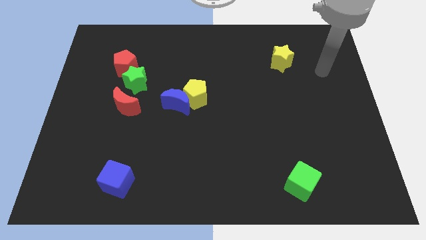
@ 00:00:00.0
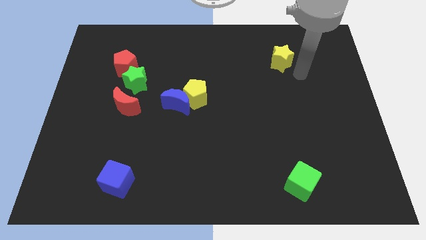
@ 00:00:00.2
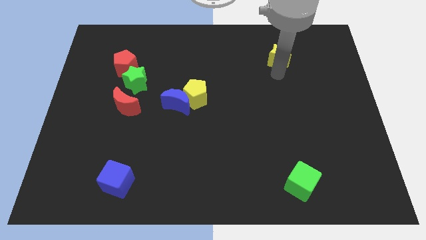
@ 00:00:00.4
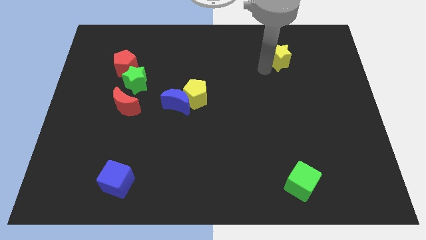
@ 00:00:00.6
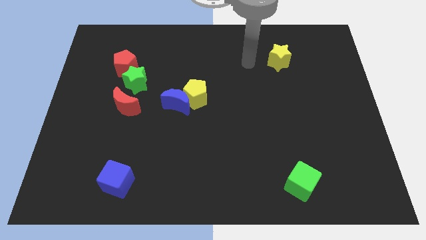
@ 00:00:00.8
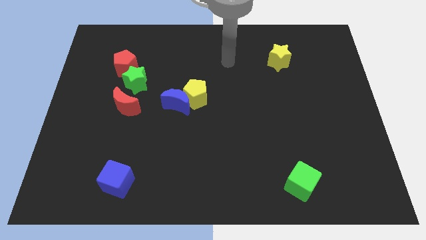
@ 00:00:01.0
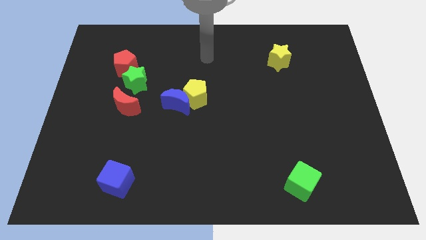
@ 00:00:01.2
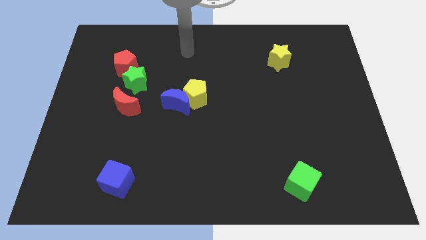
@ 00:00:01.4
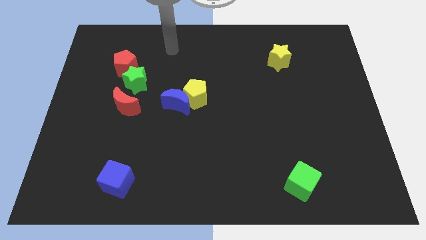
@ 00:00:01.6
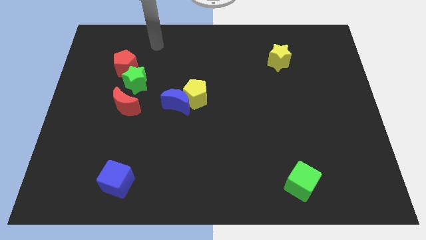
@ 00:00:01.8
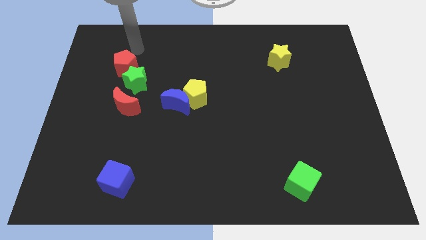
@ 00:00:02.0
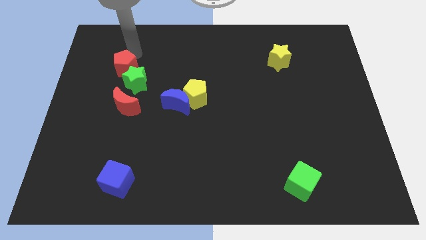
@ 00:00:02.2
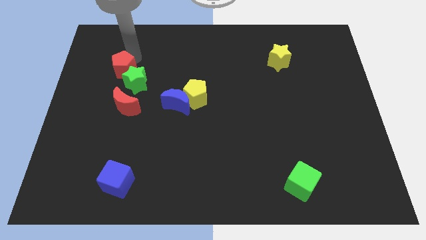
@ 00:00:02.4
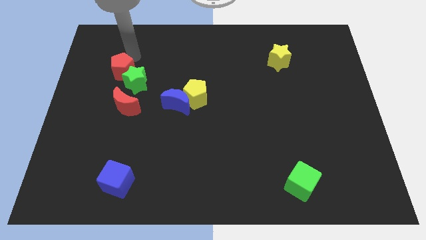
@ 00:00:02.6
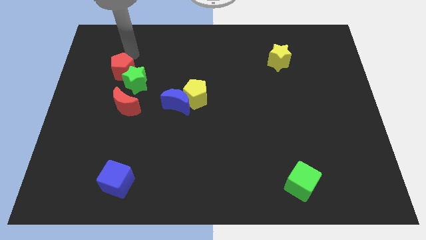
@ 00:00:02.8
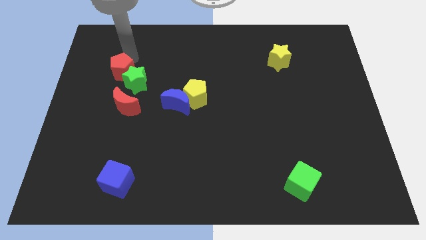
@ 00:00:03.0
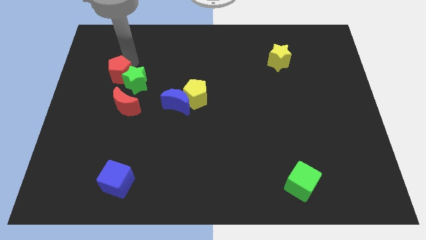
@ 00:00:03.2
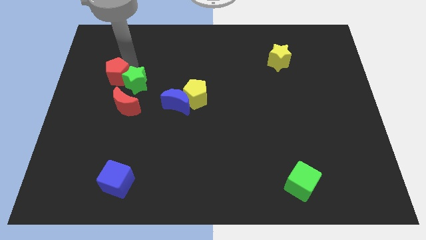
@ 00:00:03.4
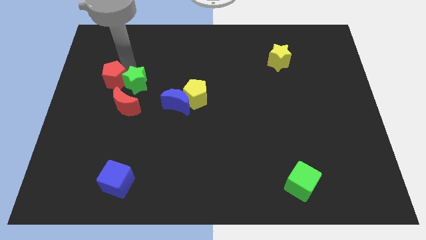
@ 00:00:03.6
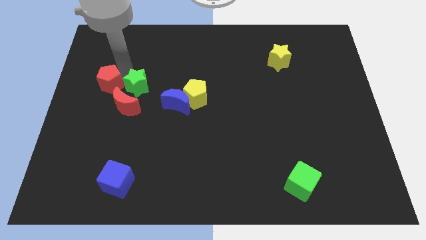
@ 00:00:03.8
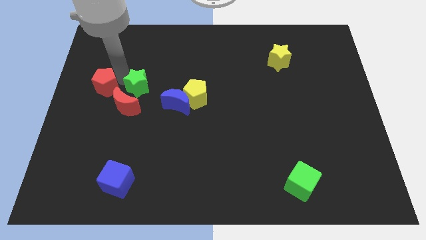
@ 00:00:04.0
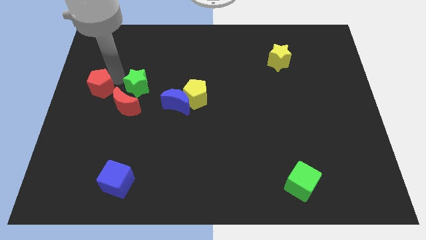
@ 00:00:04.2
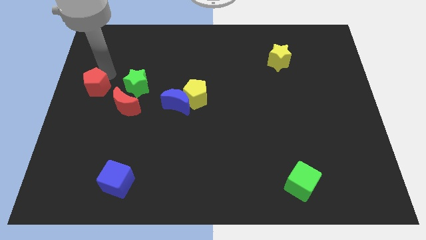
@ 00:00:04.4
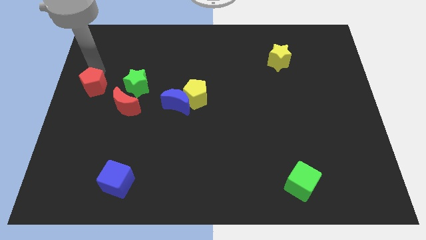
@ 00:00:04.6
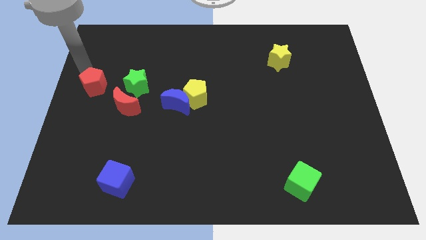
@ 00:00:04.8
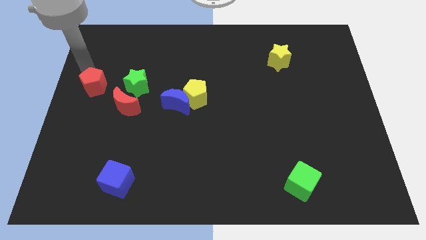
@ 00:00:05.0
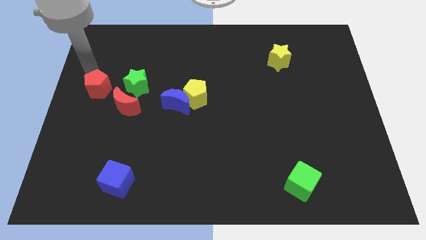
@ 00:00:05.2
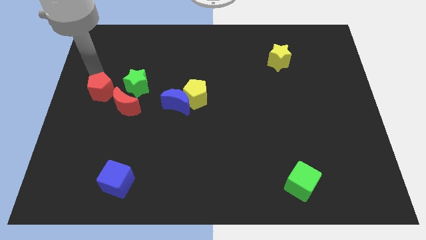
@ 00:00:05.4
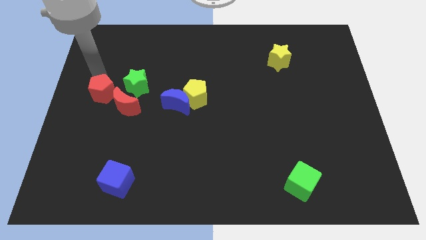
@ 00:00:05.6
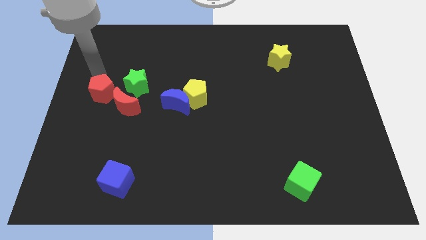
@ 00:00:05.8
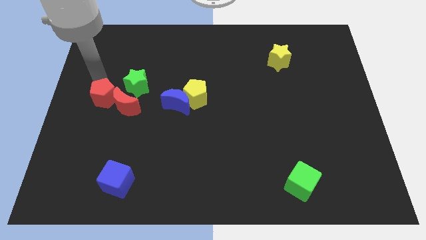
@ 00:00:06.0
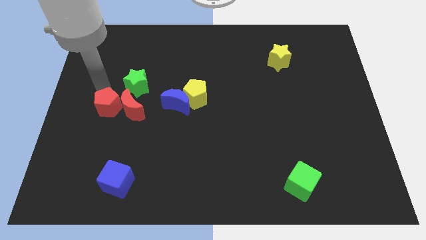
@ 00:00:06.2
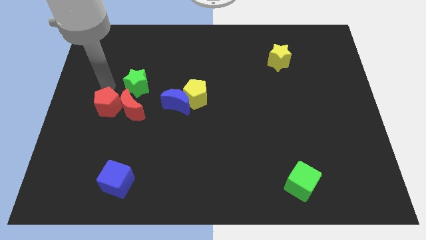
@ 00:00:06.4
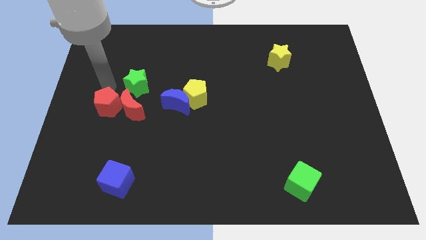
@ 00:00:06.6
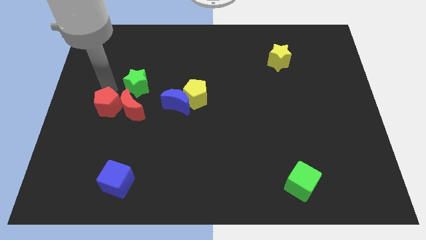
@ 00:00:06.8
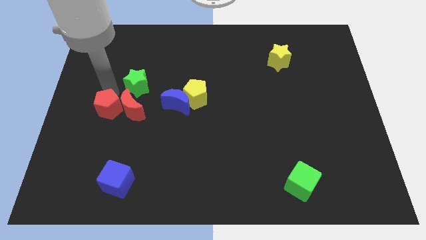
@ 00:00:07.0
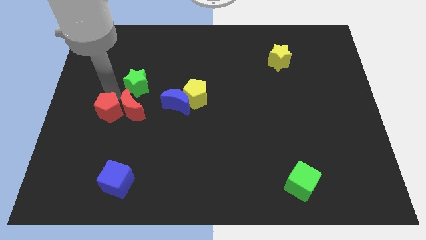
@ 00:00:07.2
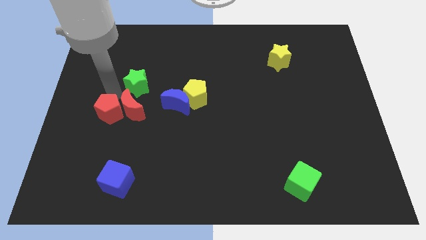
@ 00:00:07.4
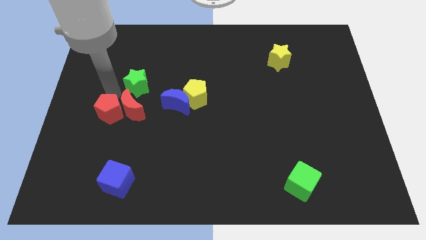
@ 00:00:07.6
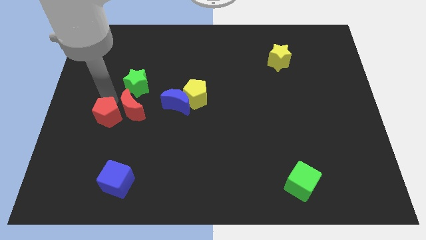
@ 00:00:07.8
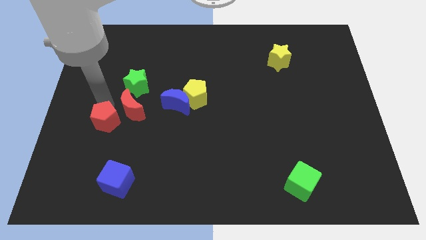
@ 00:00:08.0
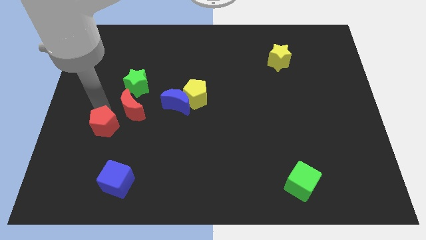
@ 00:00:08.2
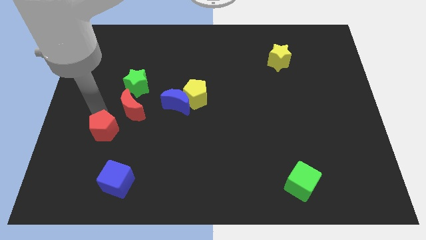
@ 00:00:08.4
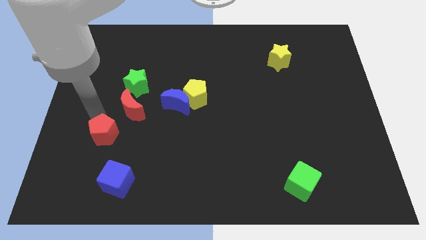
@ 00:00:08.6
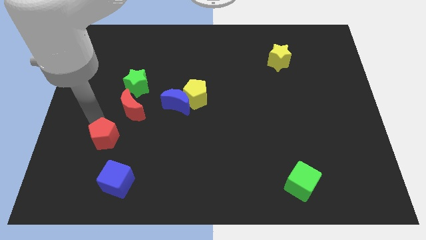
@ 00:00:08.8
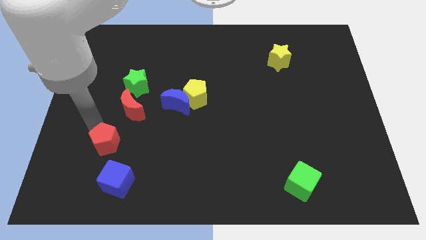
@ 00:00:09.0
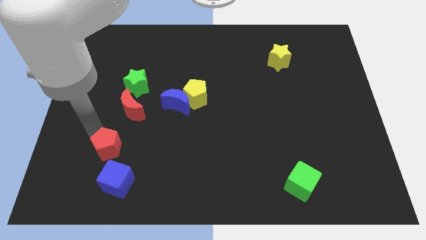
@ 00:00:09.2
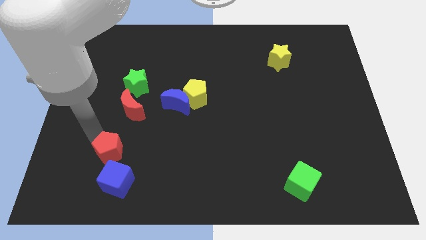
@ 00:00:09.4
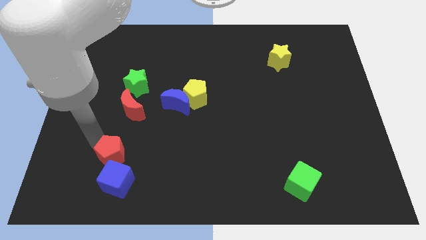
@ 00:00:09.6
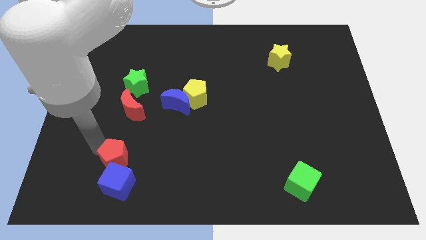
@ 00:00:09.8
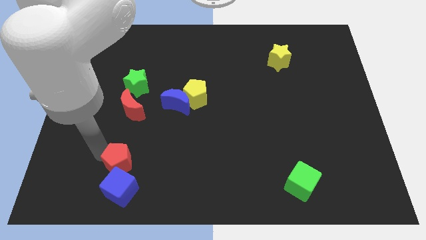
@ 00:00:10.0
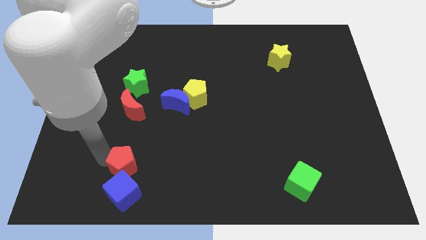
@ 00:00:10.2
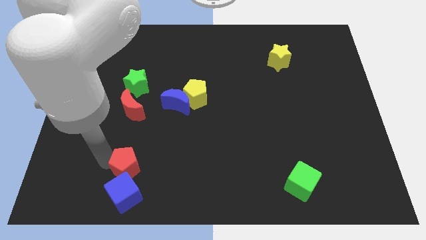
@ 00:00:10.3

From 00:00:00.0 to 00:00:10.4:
put the red pentagon to the top right side of the blue cube

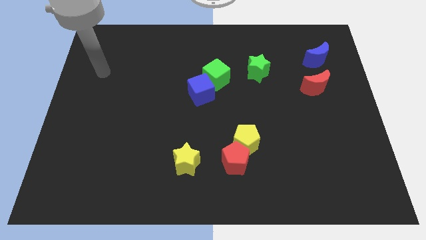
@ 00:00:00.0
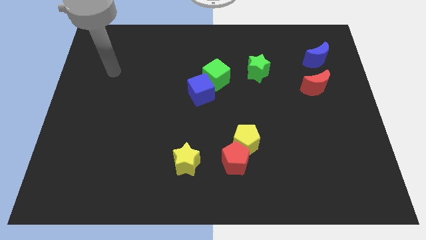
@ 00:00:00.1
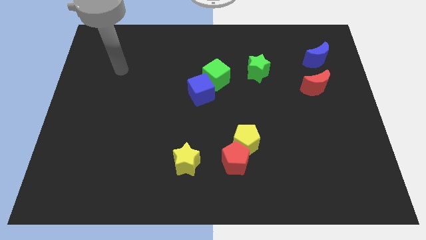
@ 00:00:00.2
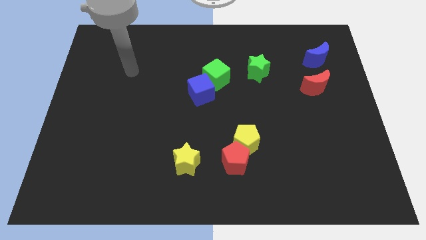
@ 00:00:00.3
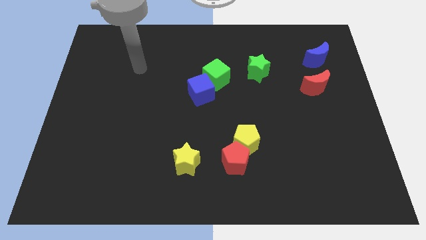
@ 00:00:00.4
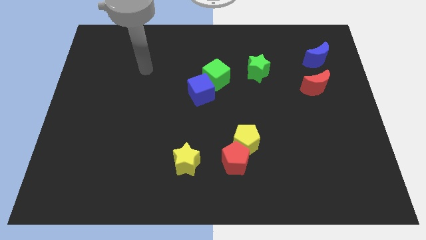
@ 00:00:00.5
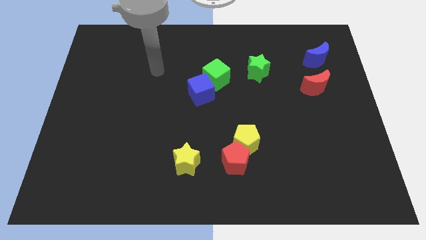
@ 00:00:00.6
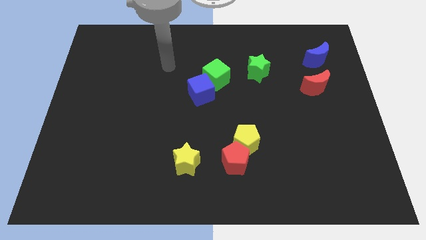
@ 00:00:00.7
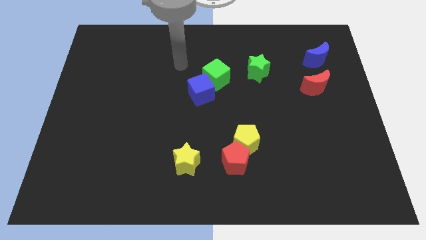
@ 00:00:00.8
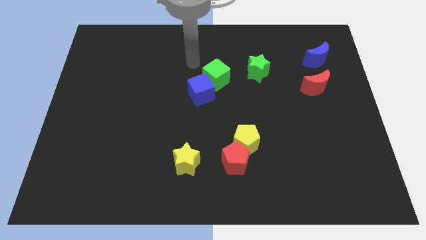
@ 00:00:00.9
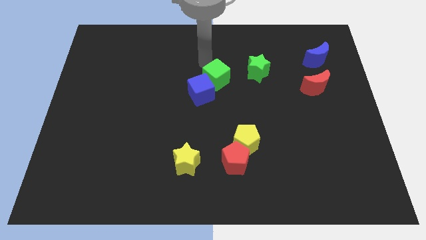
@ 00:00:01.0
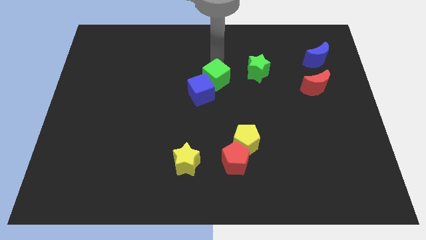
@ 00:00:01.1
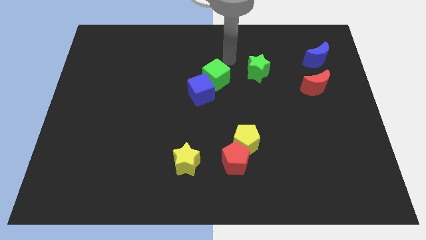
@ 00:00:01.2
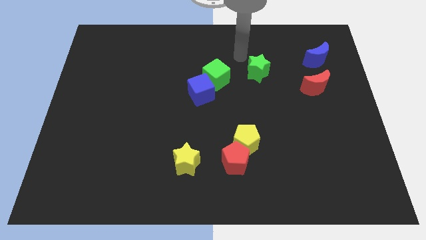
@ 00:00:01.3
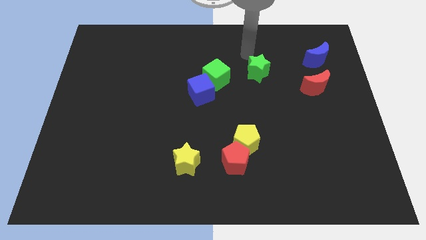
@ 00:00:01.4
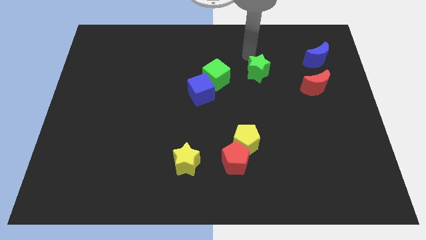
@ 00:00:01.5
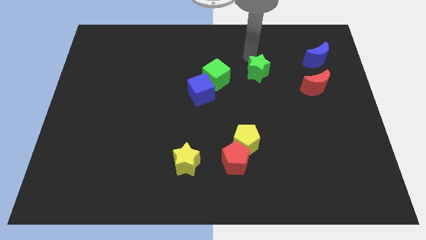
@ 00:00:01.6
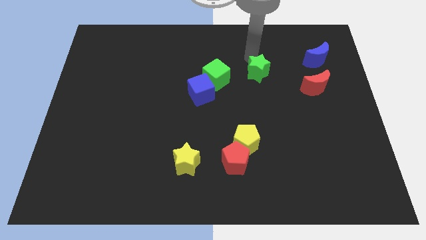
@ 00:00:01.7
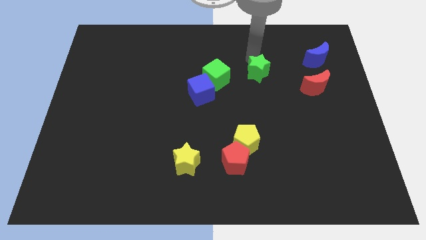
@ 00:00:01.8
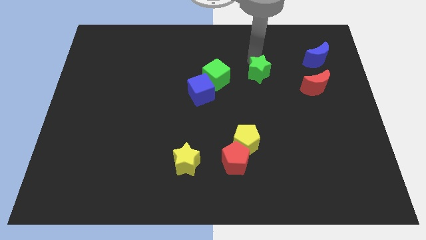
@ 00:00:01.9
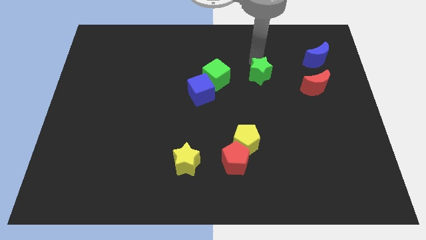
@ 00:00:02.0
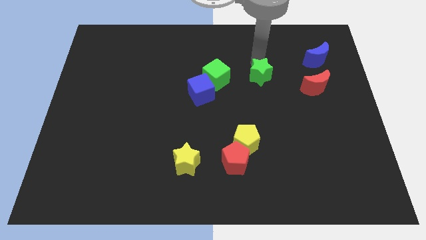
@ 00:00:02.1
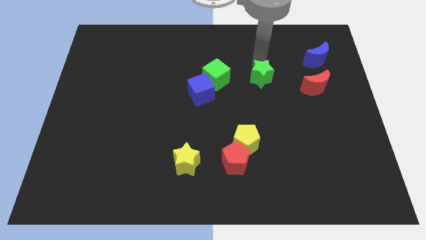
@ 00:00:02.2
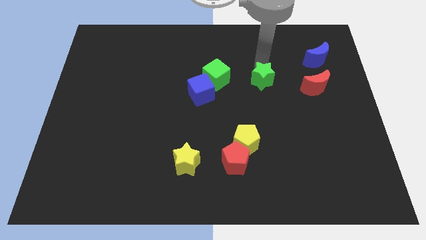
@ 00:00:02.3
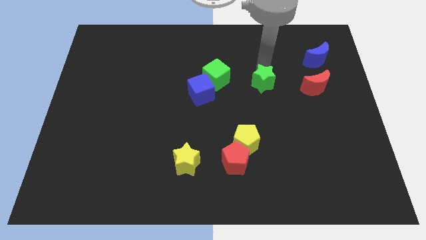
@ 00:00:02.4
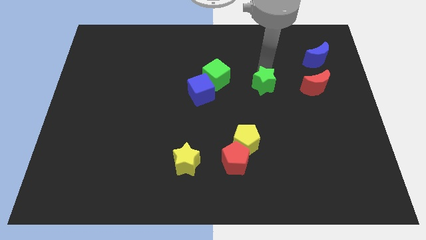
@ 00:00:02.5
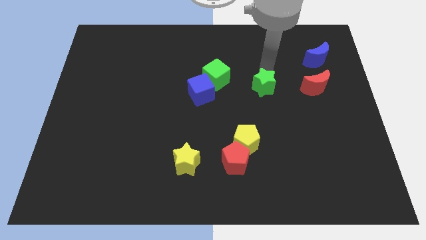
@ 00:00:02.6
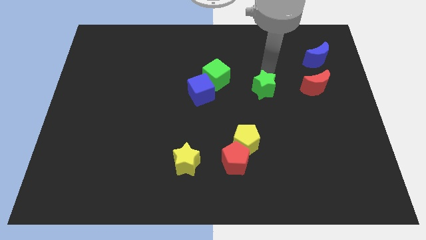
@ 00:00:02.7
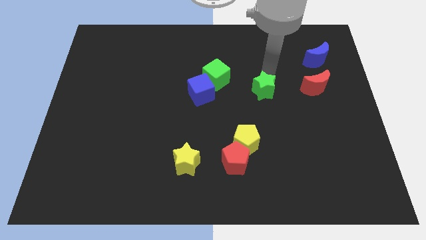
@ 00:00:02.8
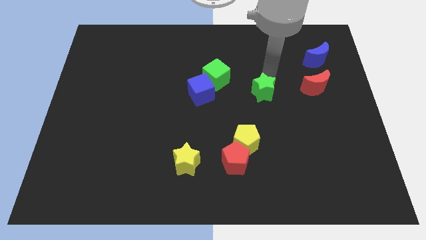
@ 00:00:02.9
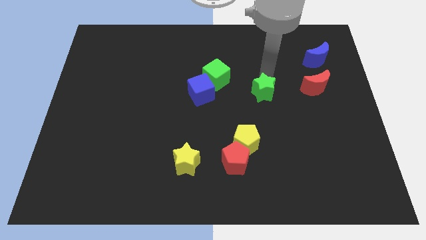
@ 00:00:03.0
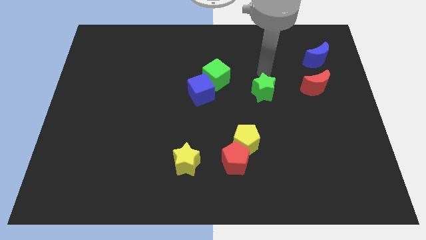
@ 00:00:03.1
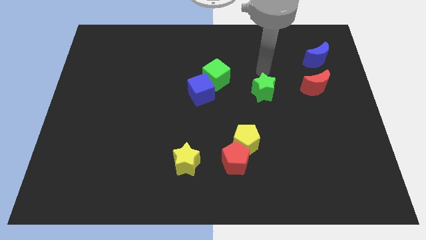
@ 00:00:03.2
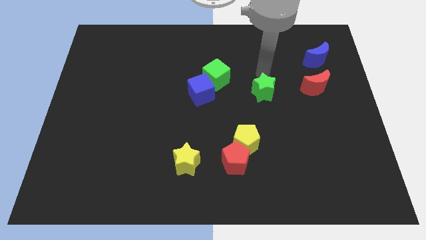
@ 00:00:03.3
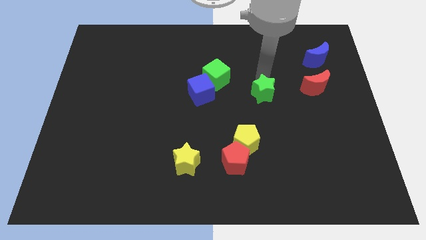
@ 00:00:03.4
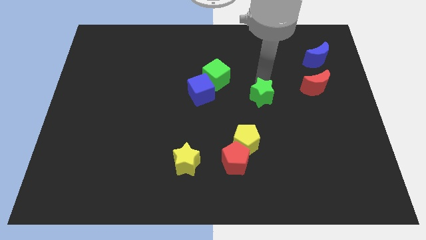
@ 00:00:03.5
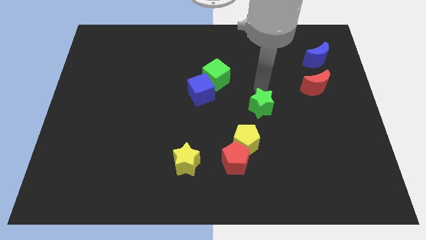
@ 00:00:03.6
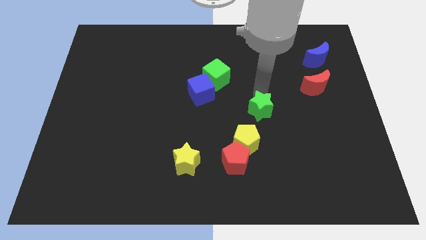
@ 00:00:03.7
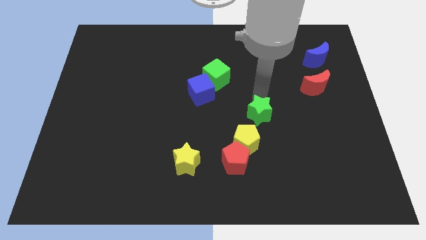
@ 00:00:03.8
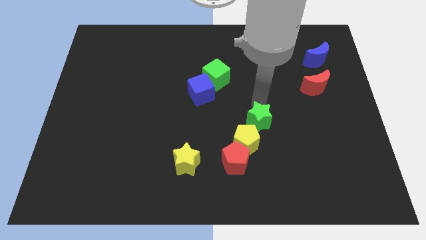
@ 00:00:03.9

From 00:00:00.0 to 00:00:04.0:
move the green star to the top right side of the red pentagon
